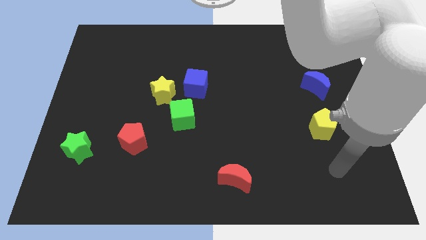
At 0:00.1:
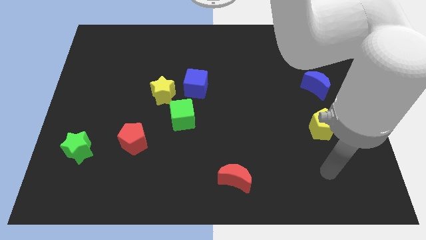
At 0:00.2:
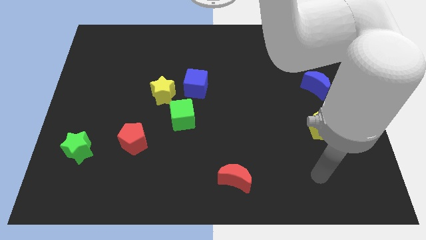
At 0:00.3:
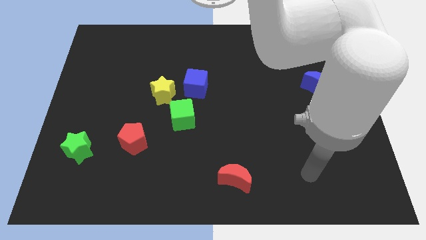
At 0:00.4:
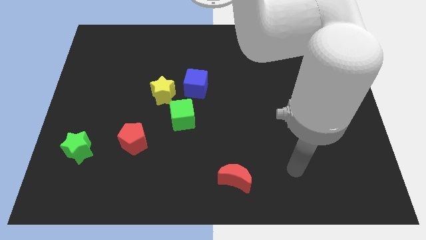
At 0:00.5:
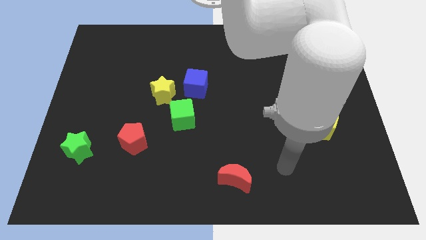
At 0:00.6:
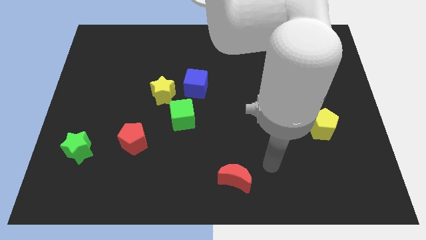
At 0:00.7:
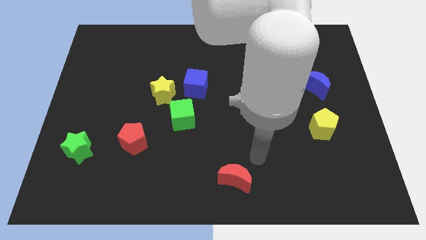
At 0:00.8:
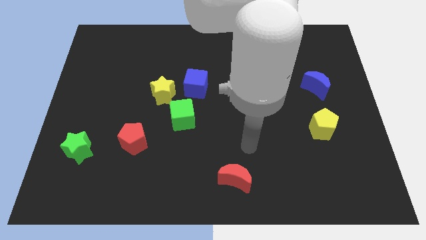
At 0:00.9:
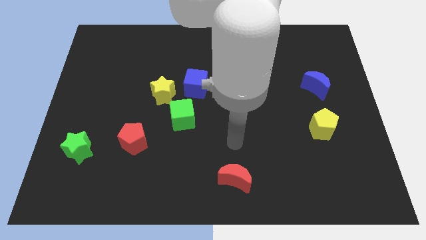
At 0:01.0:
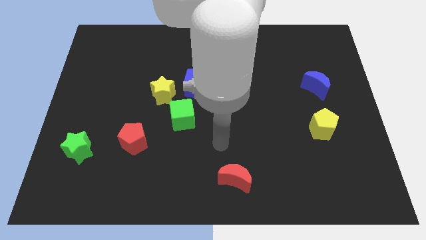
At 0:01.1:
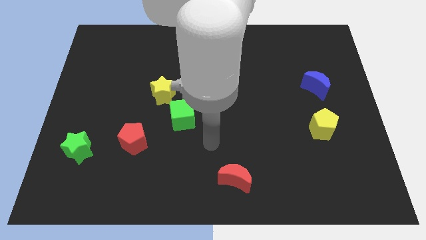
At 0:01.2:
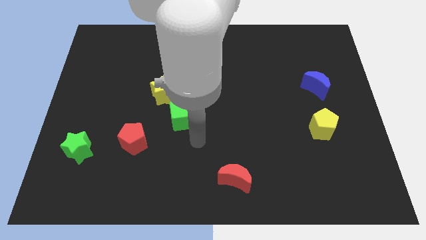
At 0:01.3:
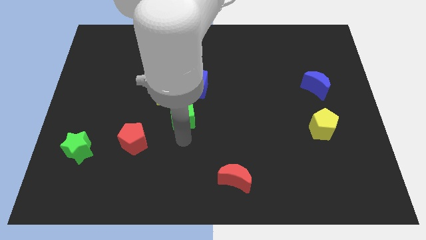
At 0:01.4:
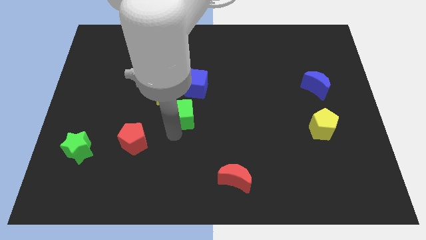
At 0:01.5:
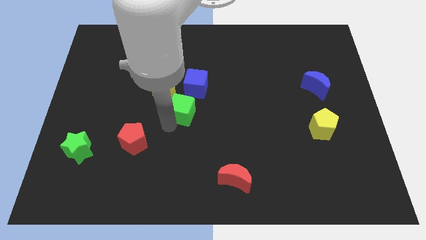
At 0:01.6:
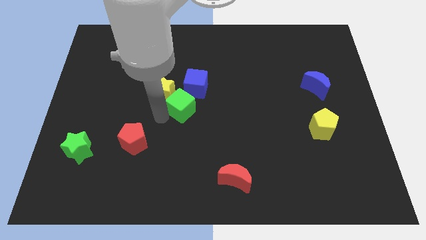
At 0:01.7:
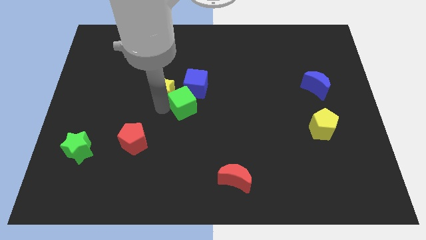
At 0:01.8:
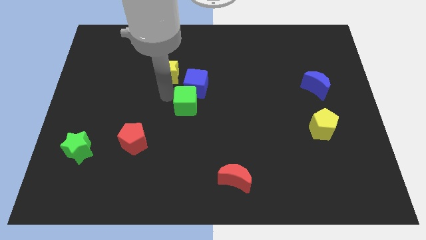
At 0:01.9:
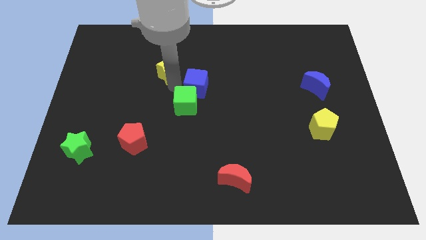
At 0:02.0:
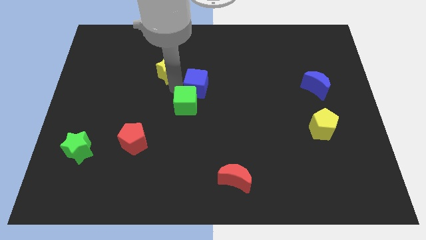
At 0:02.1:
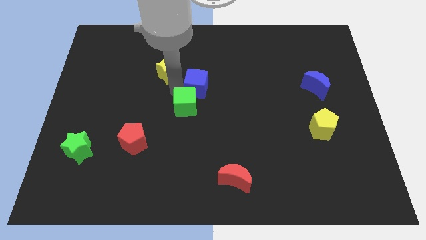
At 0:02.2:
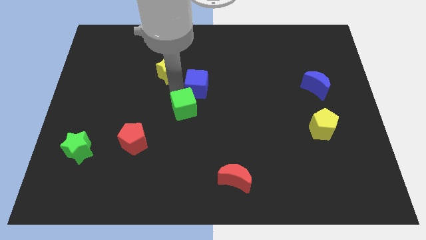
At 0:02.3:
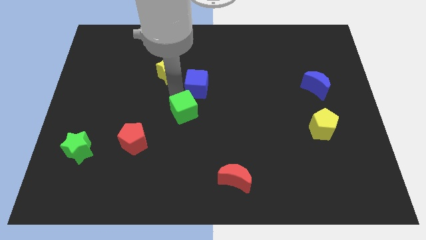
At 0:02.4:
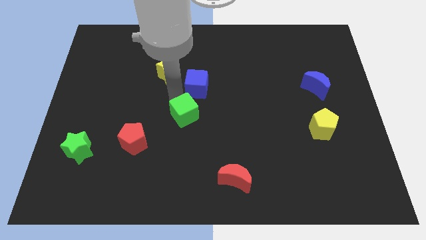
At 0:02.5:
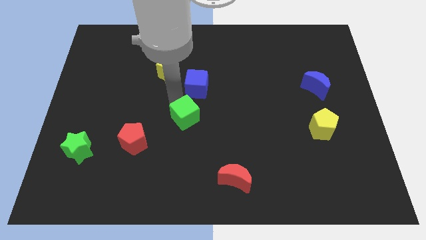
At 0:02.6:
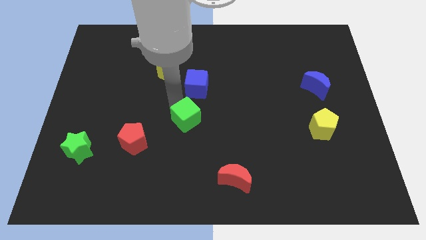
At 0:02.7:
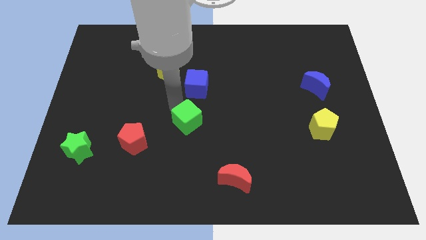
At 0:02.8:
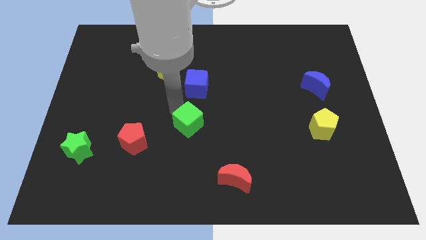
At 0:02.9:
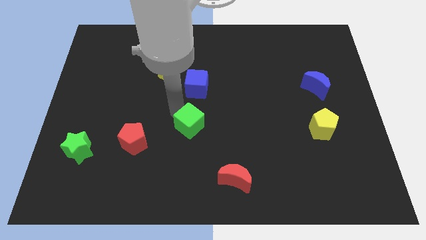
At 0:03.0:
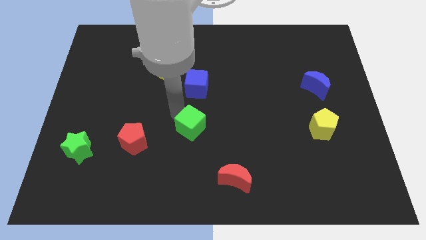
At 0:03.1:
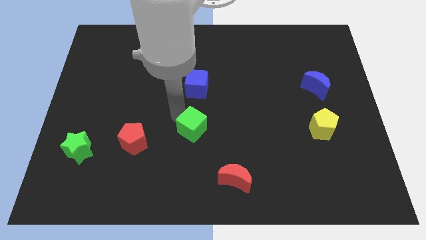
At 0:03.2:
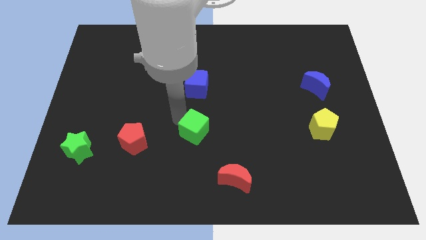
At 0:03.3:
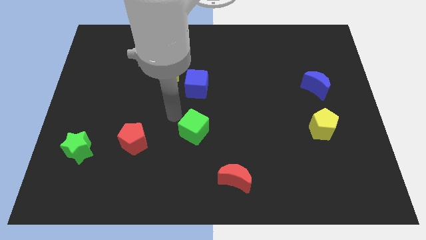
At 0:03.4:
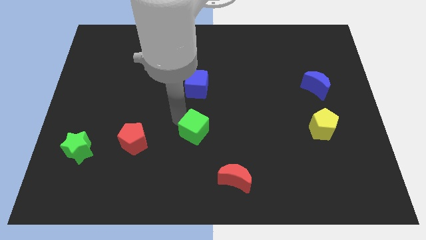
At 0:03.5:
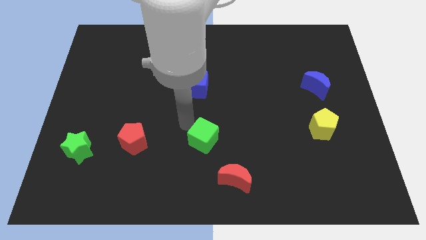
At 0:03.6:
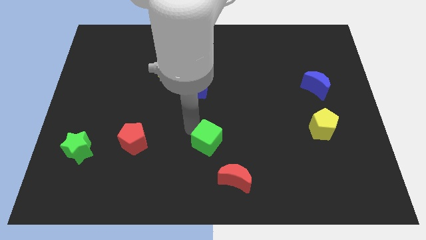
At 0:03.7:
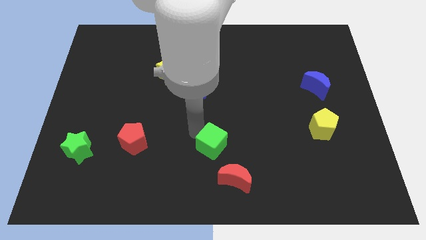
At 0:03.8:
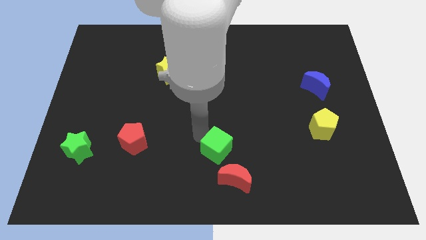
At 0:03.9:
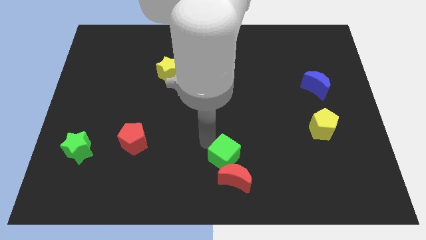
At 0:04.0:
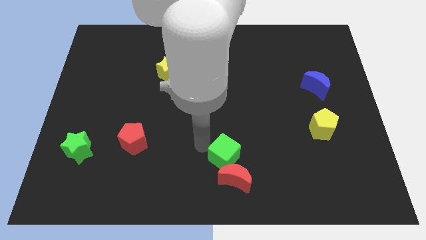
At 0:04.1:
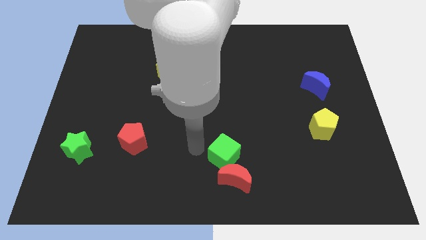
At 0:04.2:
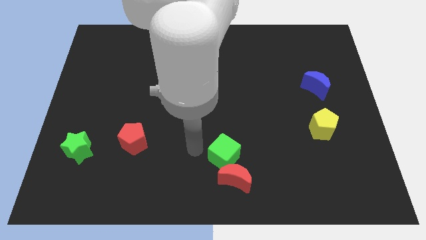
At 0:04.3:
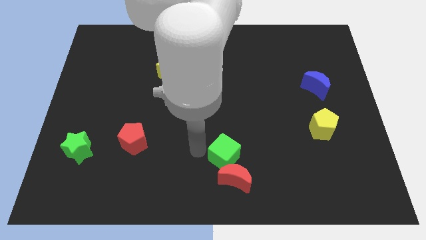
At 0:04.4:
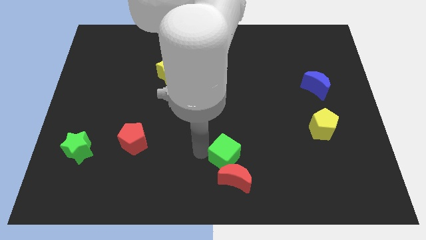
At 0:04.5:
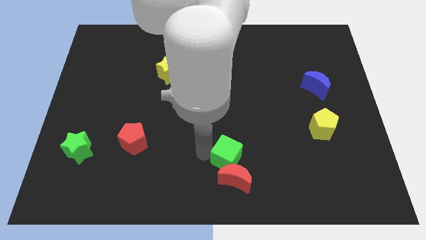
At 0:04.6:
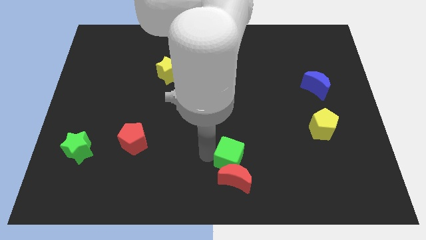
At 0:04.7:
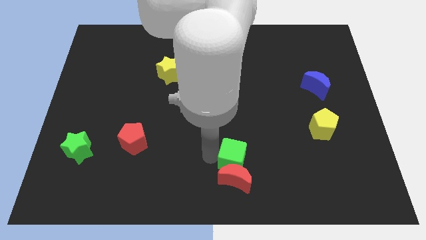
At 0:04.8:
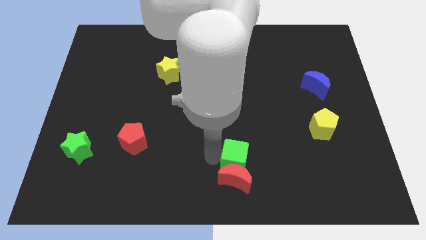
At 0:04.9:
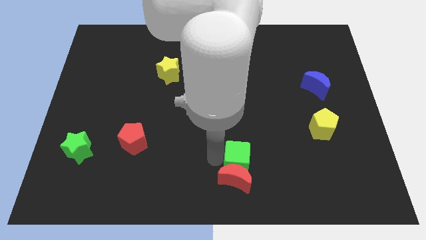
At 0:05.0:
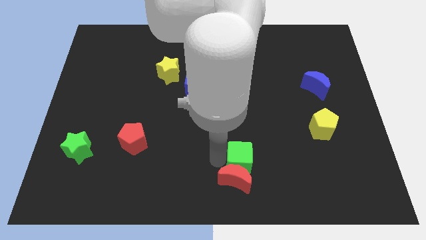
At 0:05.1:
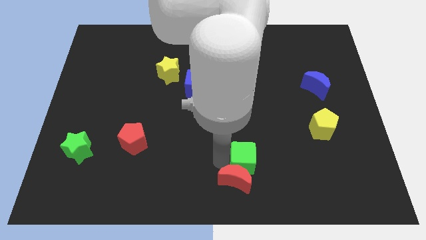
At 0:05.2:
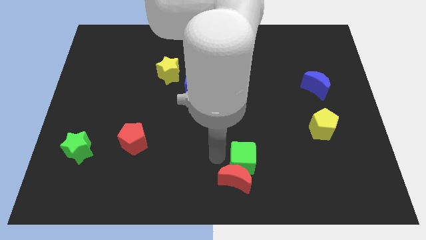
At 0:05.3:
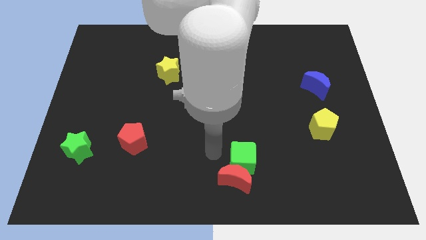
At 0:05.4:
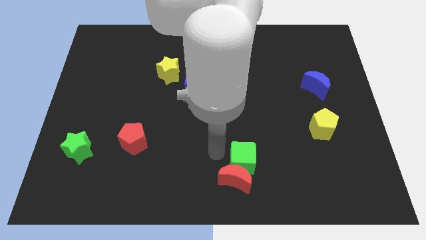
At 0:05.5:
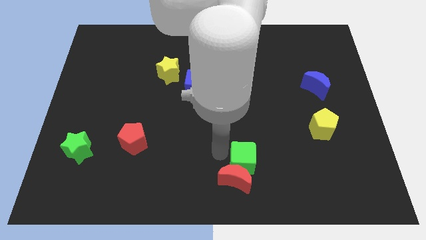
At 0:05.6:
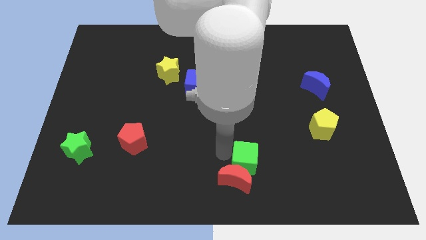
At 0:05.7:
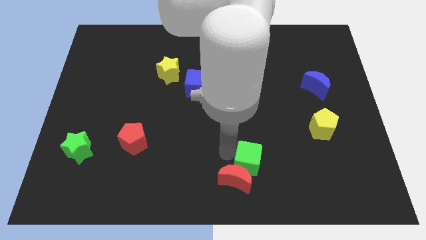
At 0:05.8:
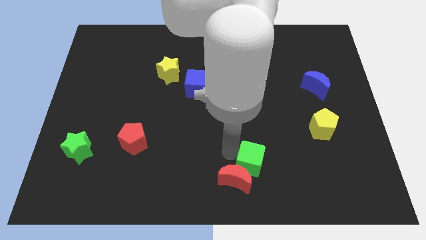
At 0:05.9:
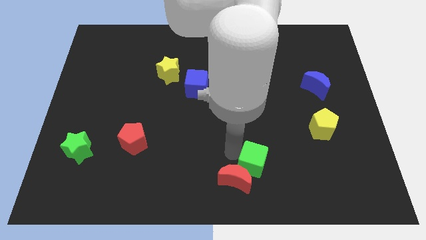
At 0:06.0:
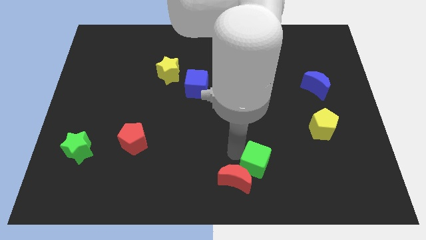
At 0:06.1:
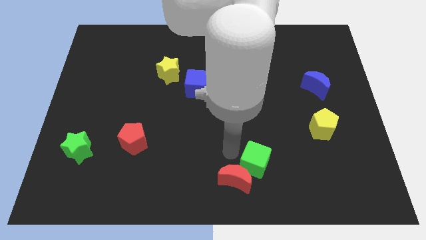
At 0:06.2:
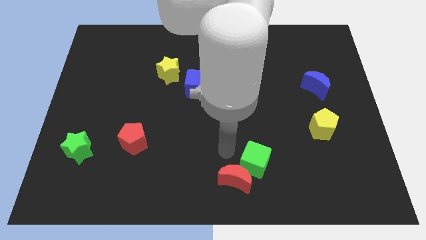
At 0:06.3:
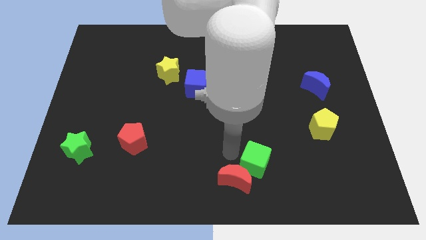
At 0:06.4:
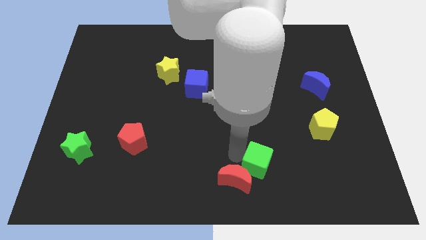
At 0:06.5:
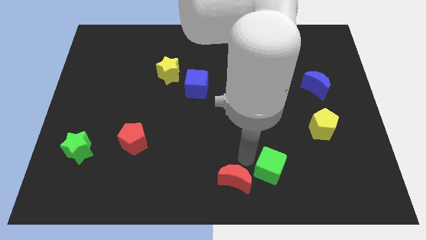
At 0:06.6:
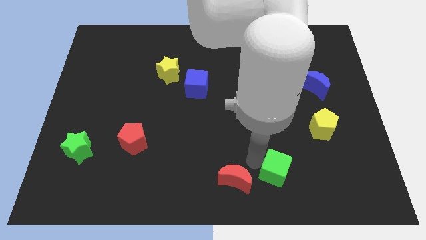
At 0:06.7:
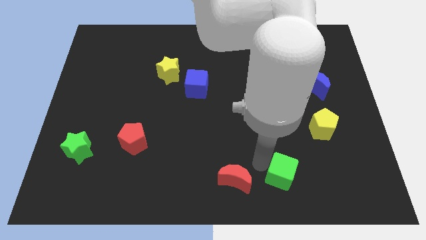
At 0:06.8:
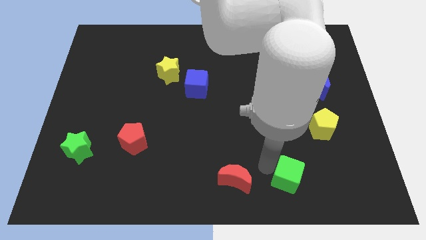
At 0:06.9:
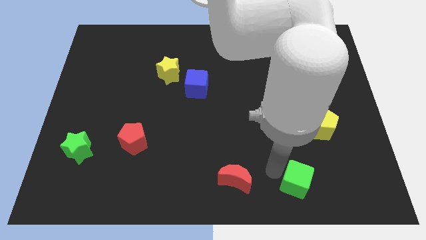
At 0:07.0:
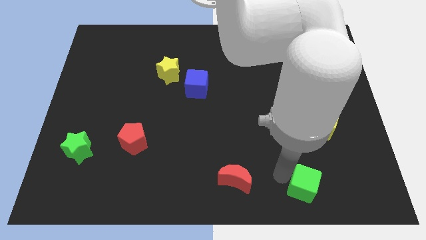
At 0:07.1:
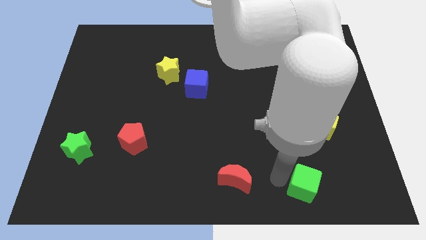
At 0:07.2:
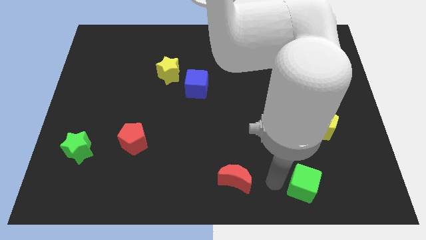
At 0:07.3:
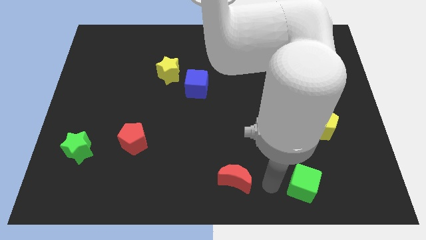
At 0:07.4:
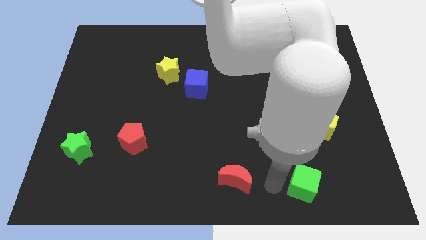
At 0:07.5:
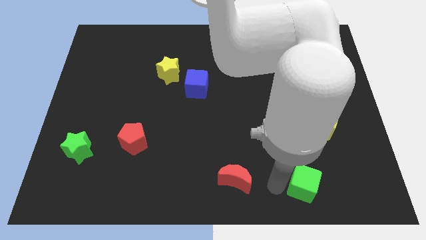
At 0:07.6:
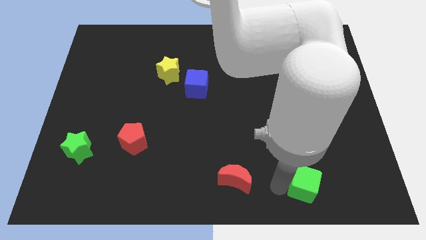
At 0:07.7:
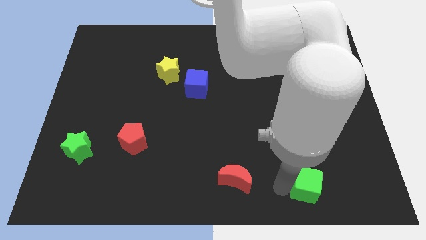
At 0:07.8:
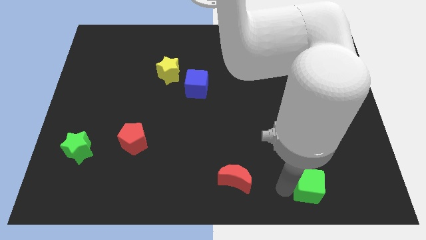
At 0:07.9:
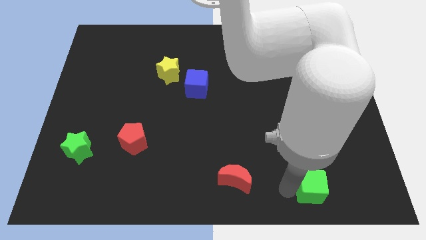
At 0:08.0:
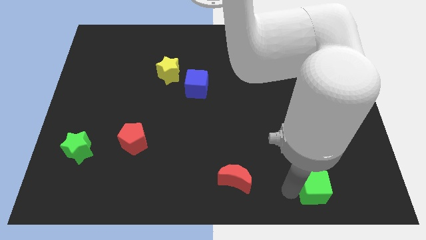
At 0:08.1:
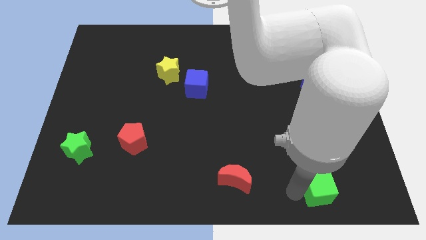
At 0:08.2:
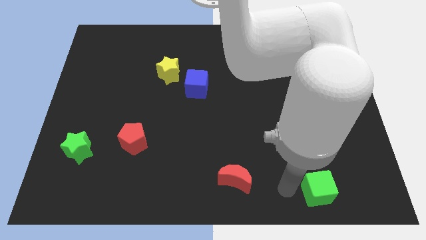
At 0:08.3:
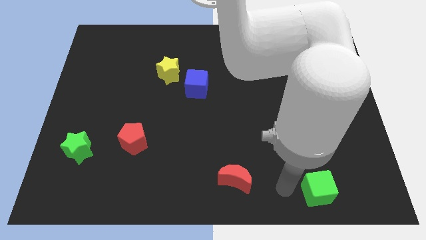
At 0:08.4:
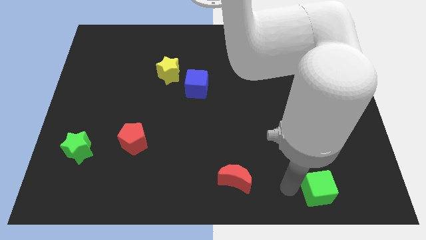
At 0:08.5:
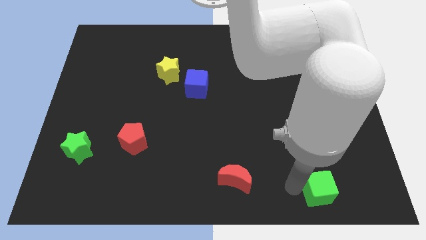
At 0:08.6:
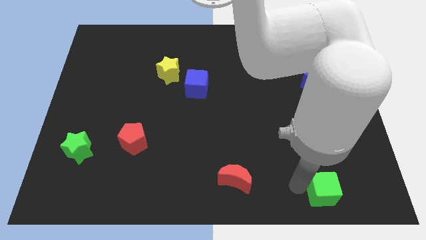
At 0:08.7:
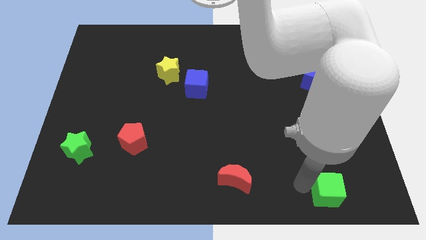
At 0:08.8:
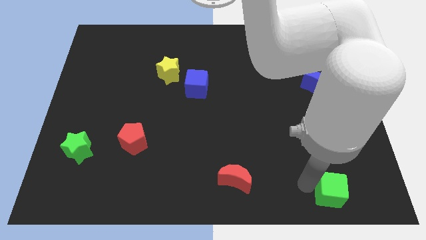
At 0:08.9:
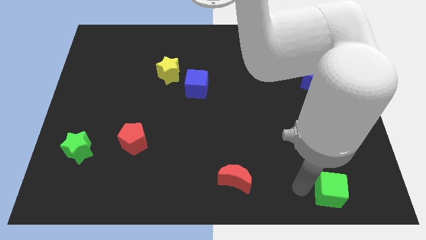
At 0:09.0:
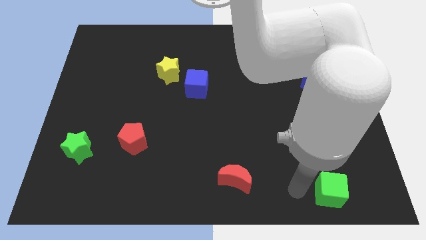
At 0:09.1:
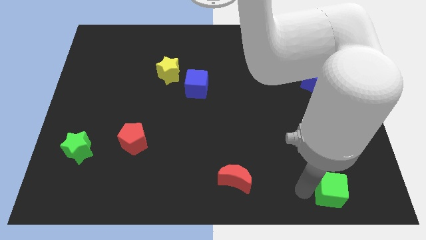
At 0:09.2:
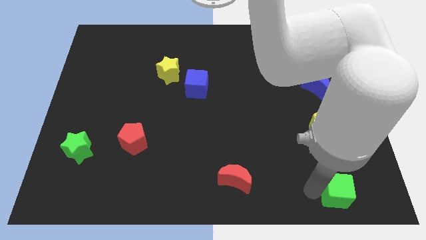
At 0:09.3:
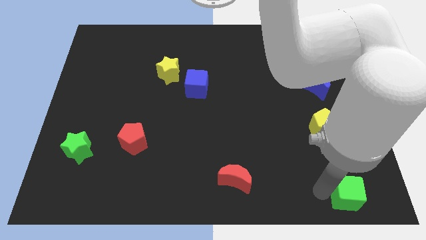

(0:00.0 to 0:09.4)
move the green cube to the lower right corner
